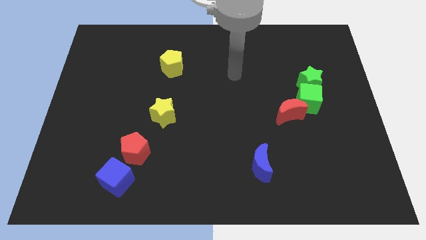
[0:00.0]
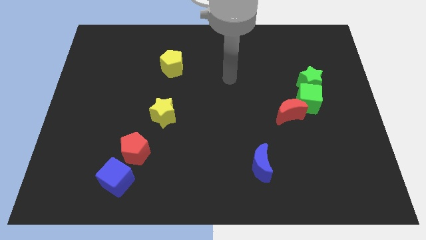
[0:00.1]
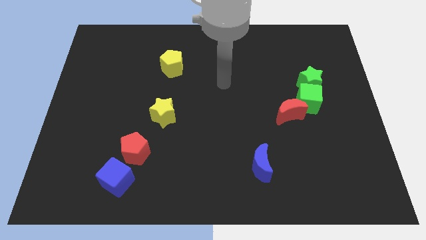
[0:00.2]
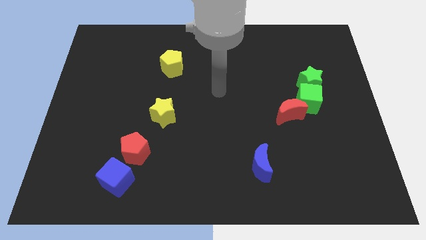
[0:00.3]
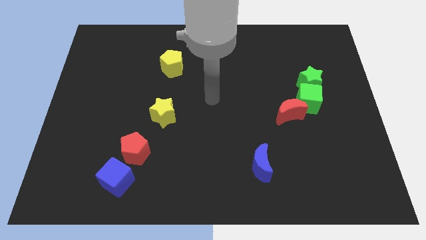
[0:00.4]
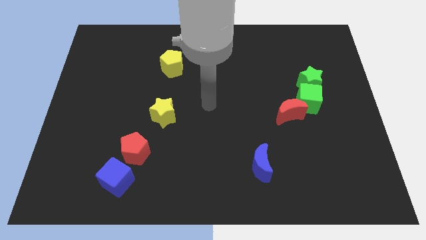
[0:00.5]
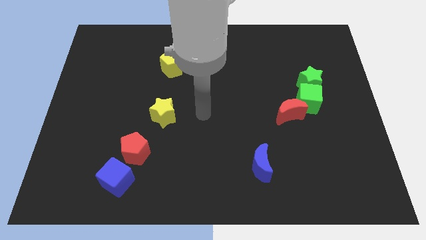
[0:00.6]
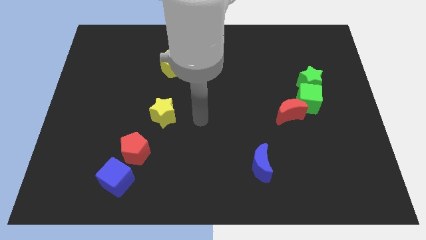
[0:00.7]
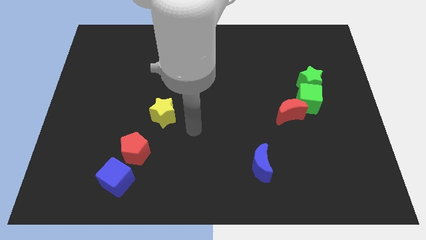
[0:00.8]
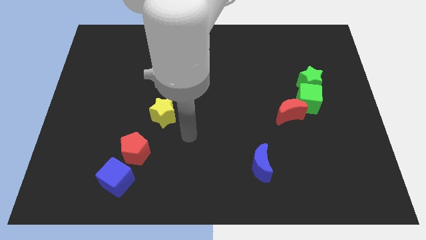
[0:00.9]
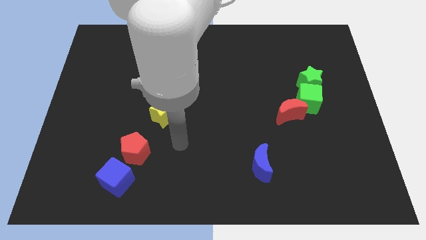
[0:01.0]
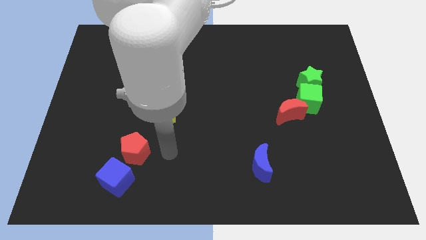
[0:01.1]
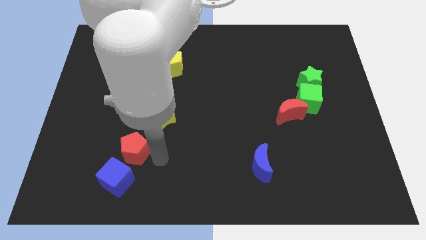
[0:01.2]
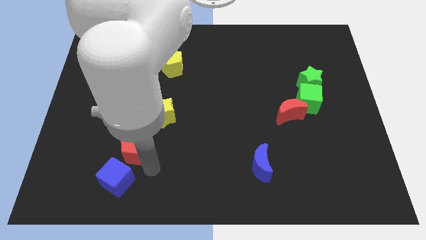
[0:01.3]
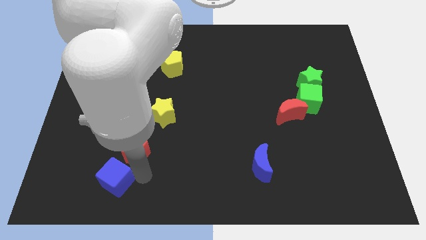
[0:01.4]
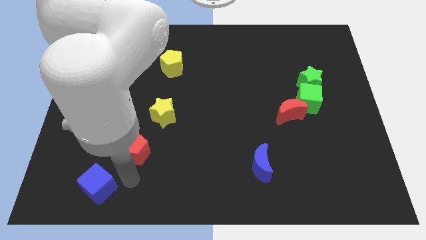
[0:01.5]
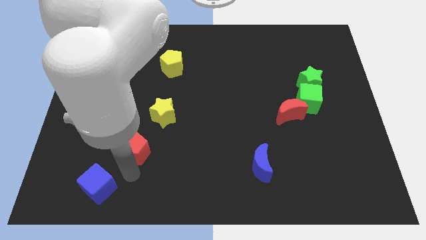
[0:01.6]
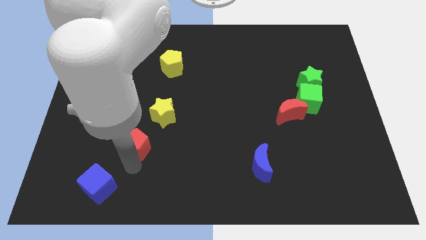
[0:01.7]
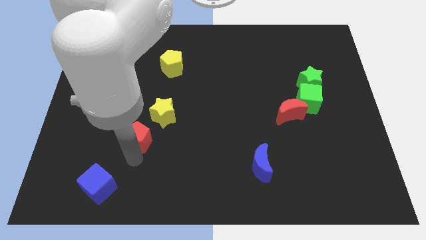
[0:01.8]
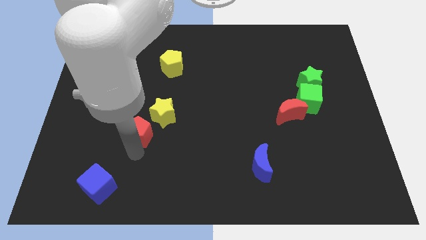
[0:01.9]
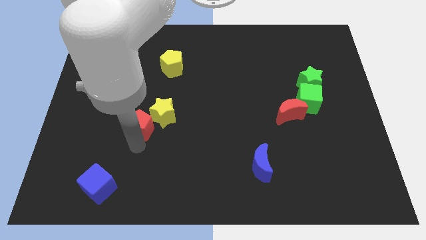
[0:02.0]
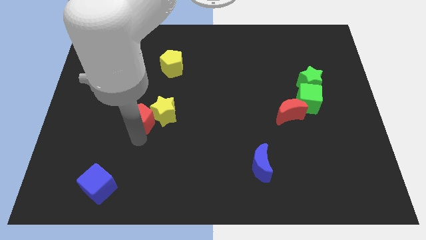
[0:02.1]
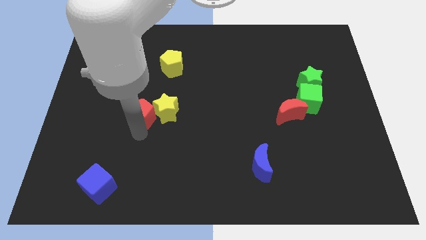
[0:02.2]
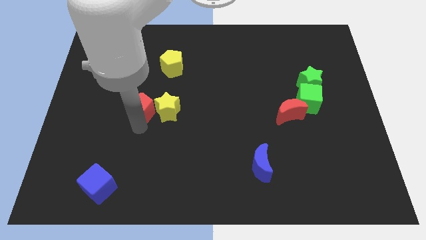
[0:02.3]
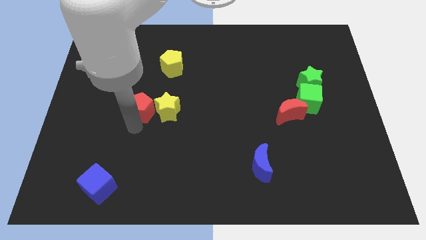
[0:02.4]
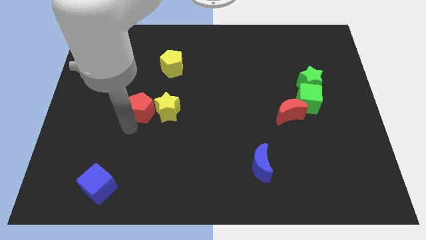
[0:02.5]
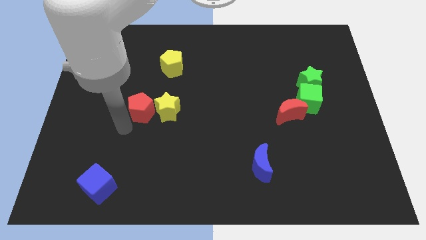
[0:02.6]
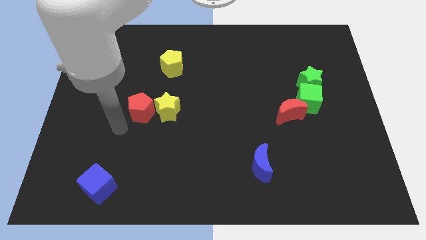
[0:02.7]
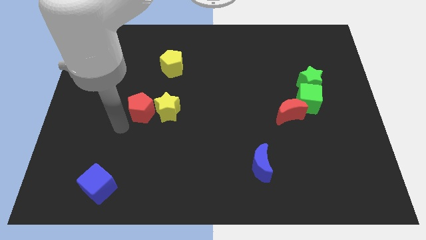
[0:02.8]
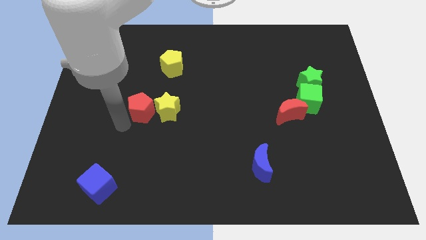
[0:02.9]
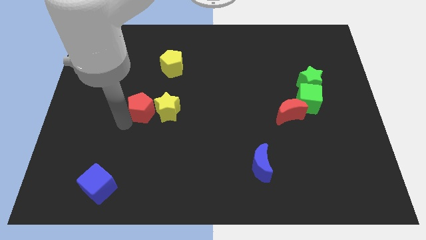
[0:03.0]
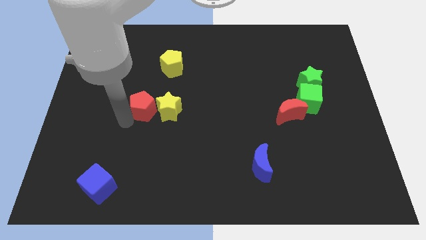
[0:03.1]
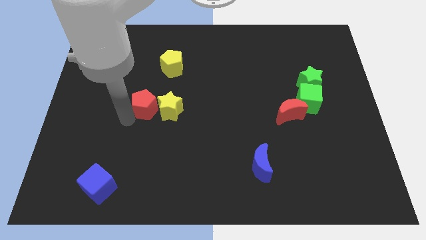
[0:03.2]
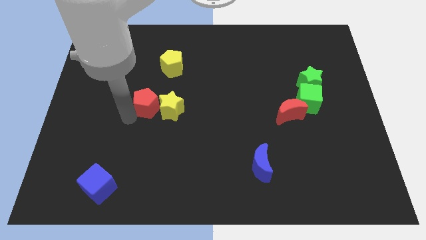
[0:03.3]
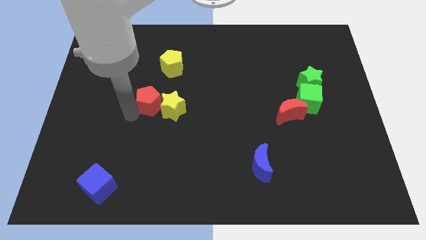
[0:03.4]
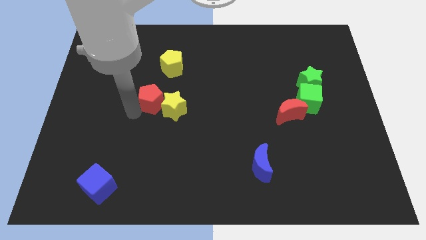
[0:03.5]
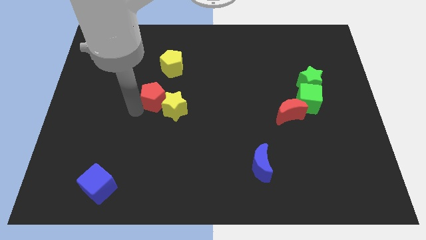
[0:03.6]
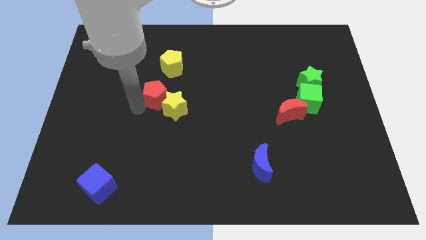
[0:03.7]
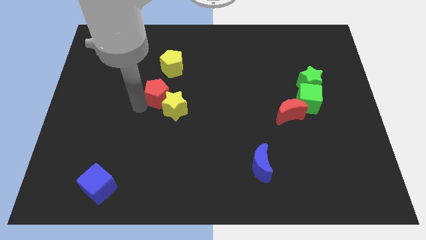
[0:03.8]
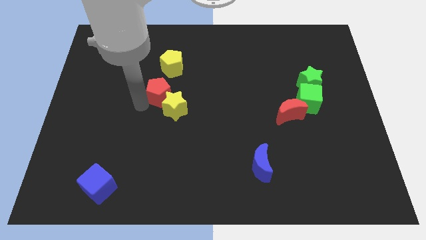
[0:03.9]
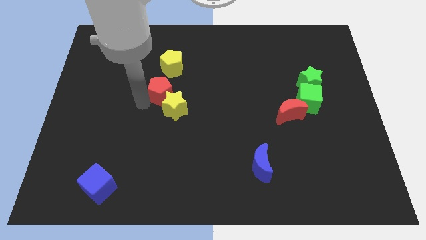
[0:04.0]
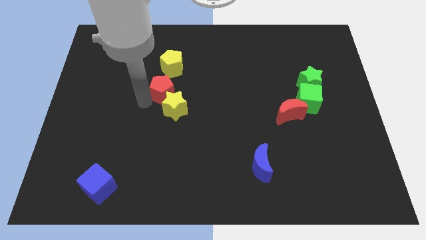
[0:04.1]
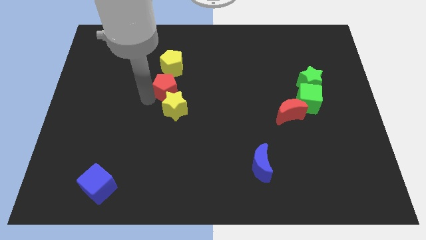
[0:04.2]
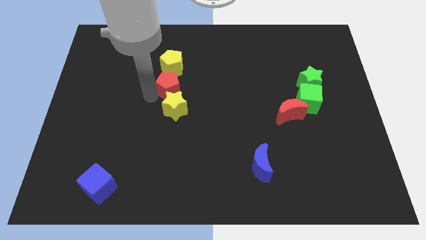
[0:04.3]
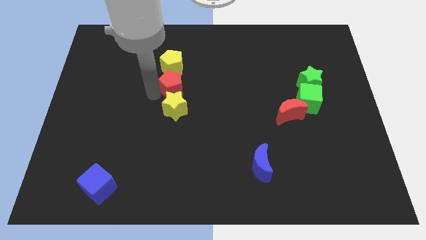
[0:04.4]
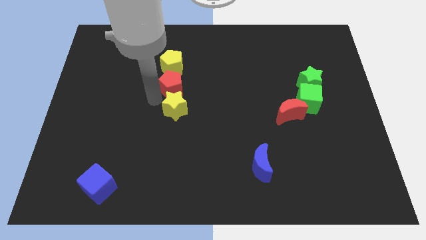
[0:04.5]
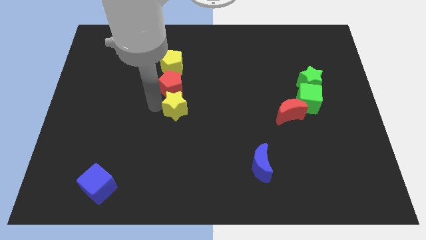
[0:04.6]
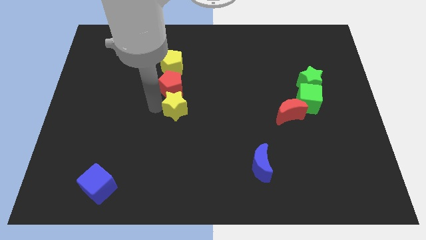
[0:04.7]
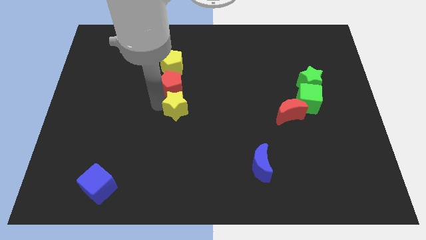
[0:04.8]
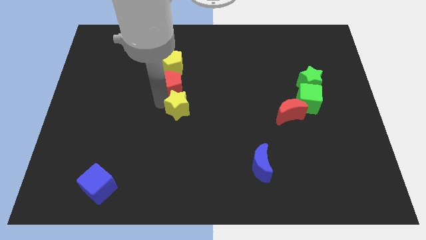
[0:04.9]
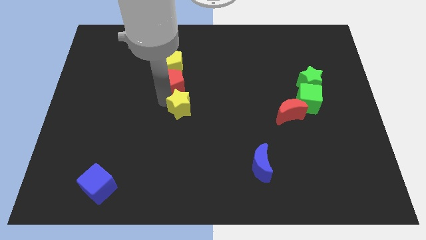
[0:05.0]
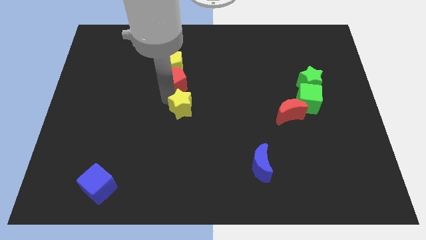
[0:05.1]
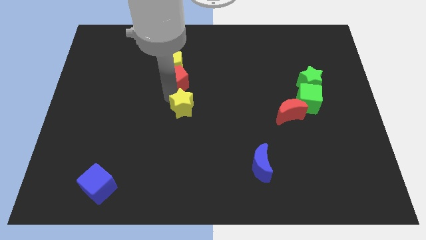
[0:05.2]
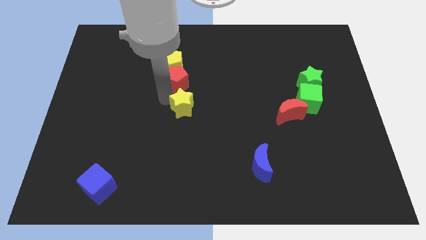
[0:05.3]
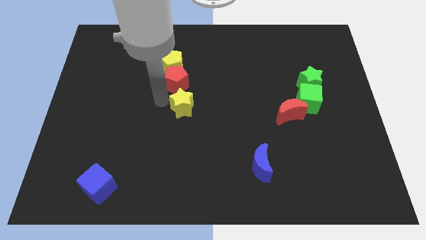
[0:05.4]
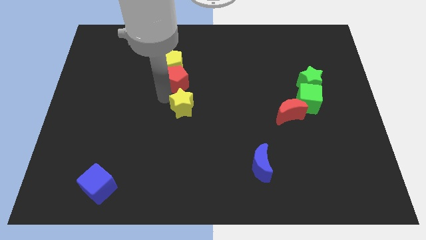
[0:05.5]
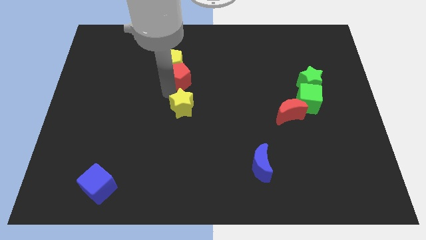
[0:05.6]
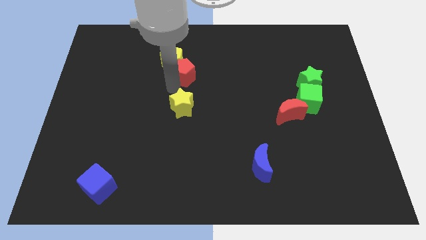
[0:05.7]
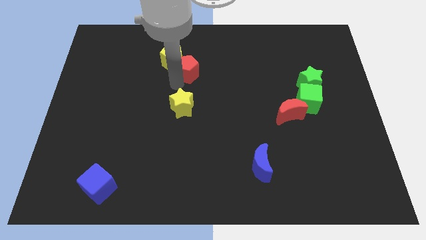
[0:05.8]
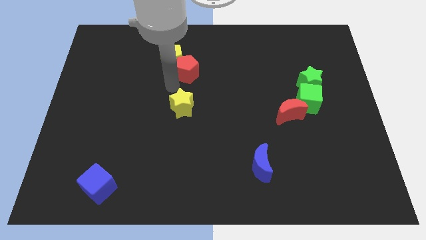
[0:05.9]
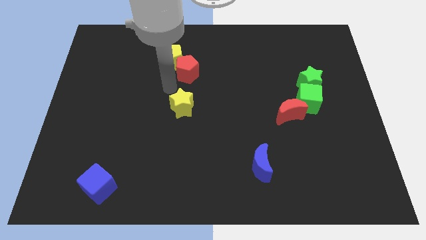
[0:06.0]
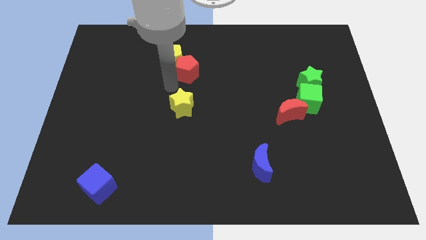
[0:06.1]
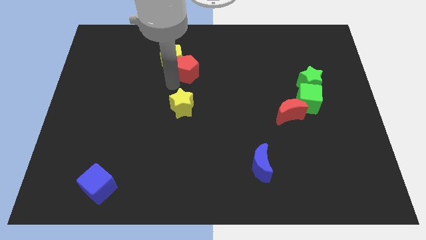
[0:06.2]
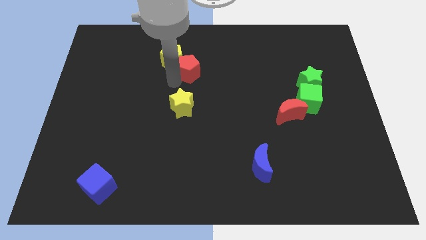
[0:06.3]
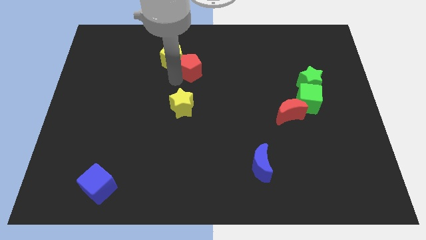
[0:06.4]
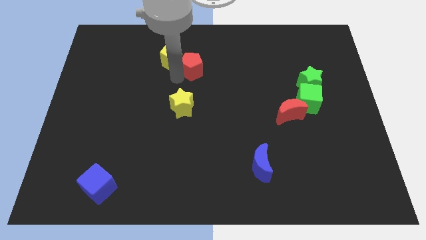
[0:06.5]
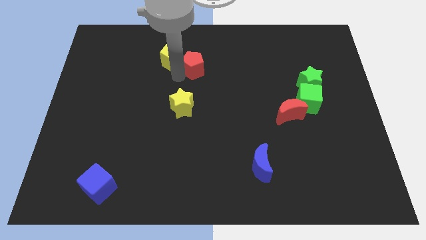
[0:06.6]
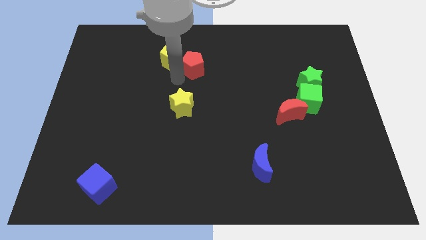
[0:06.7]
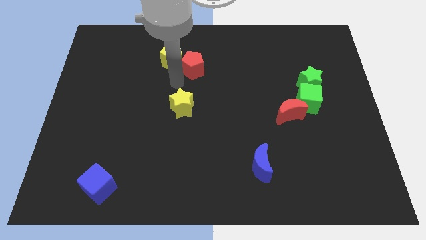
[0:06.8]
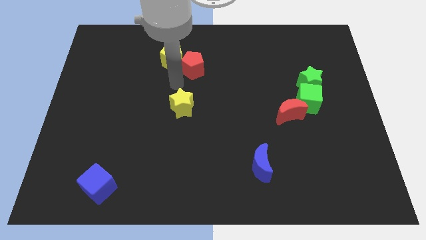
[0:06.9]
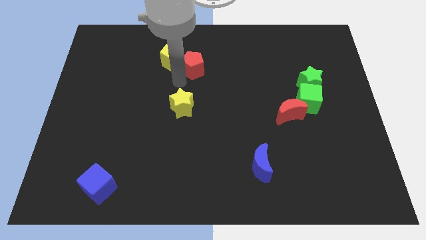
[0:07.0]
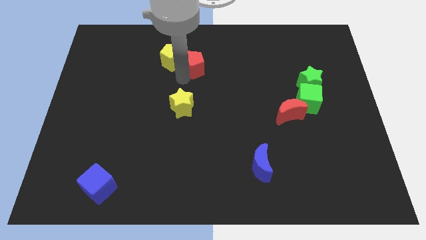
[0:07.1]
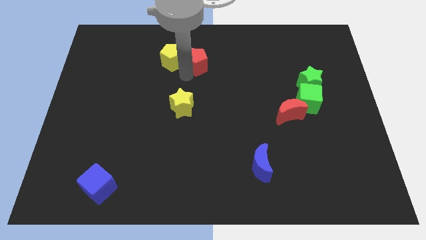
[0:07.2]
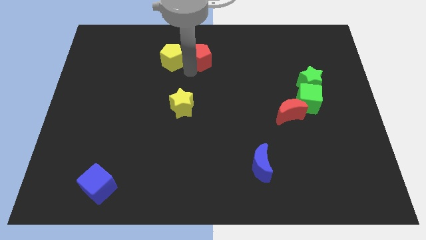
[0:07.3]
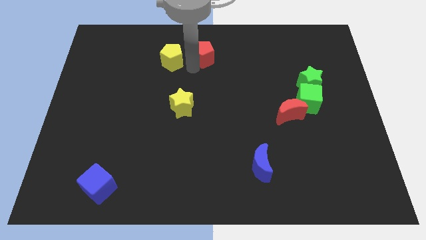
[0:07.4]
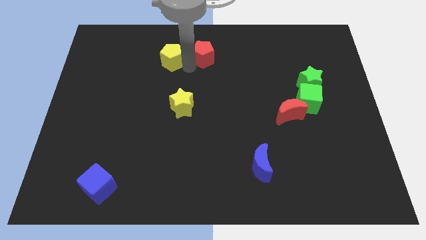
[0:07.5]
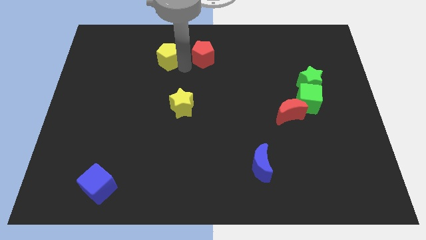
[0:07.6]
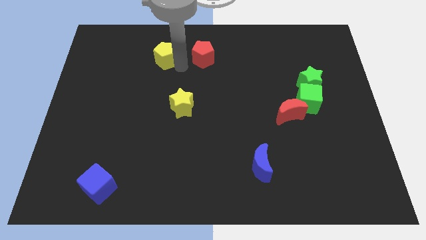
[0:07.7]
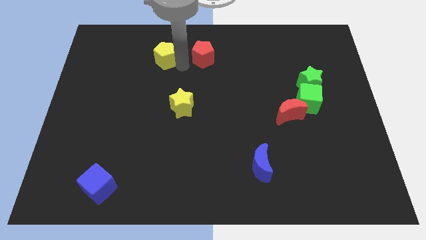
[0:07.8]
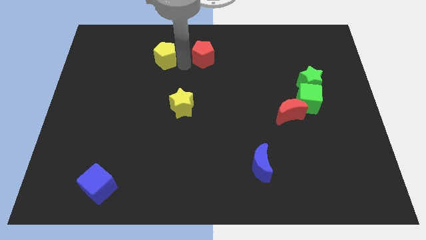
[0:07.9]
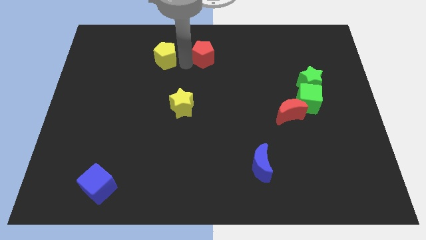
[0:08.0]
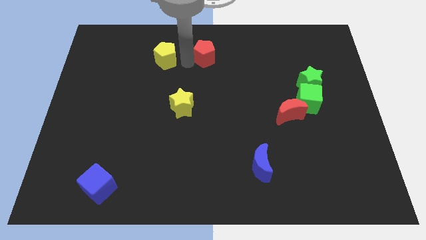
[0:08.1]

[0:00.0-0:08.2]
push the red pentagon to the towards your base
